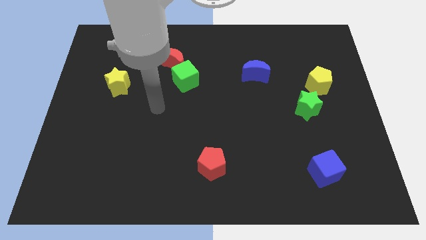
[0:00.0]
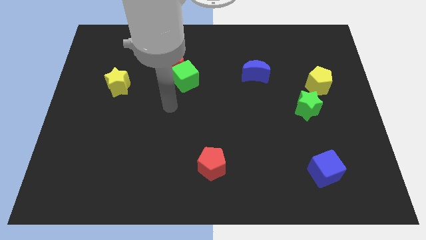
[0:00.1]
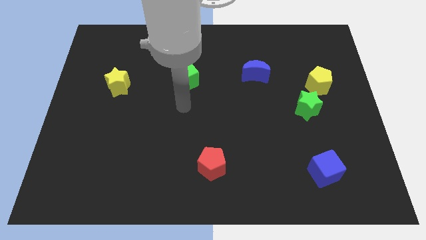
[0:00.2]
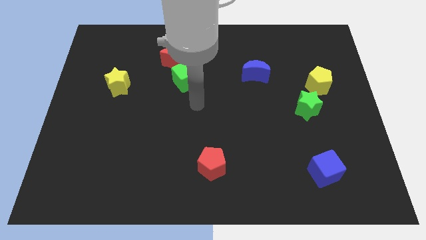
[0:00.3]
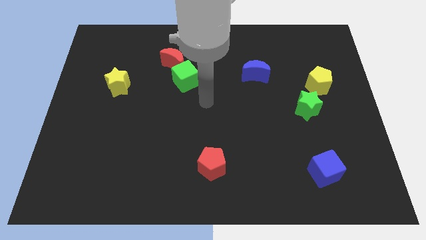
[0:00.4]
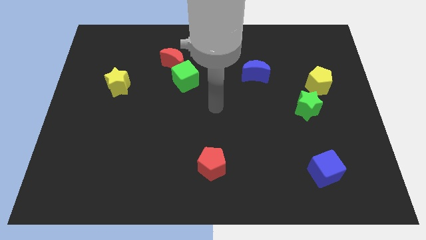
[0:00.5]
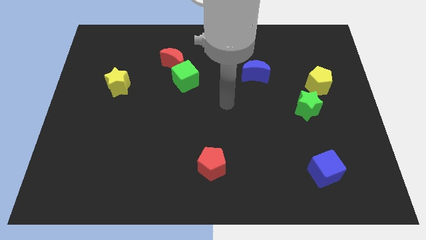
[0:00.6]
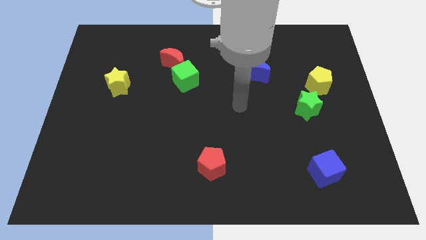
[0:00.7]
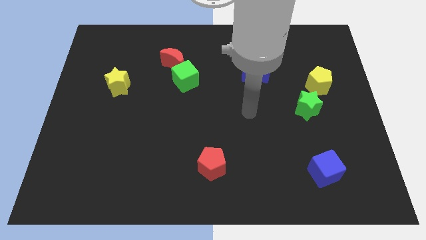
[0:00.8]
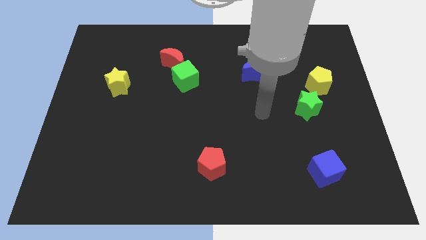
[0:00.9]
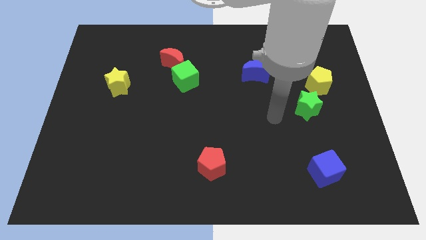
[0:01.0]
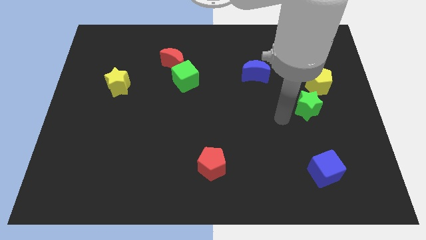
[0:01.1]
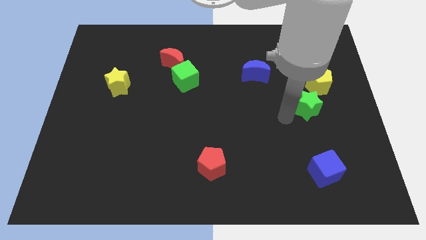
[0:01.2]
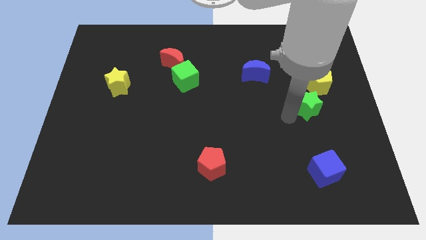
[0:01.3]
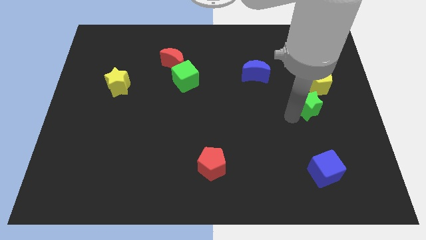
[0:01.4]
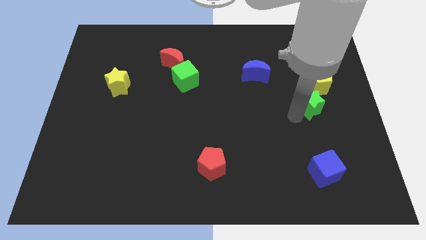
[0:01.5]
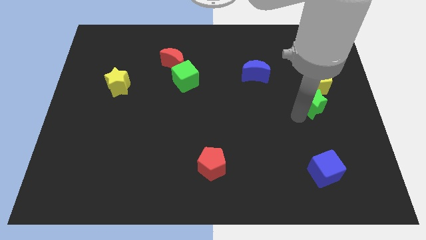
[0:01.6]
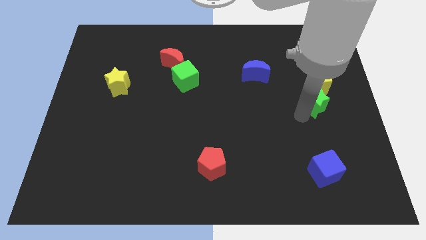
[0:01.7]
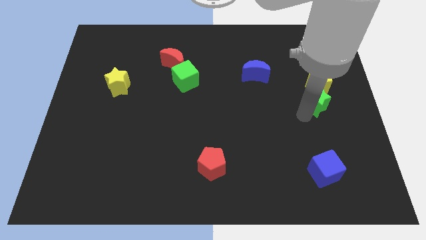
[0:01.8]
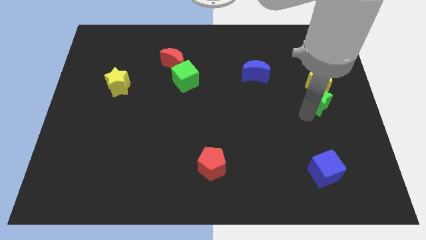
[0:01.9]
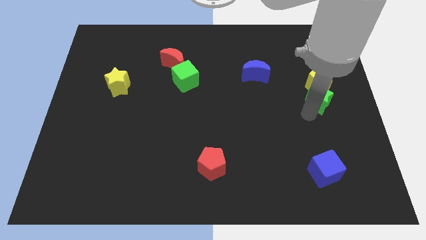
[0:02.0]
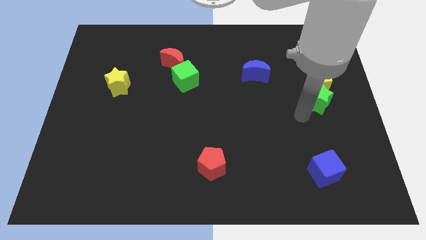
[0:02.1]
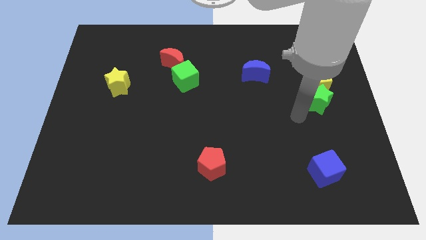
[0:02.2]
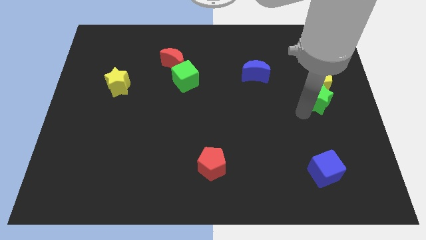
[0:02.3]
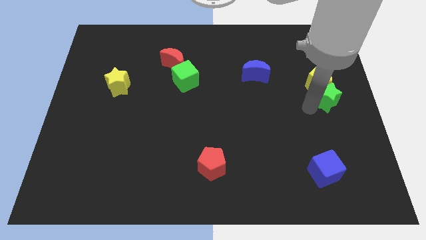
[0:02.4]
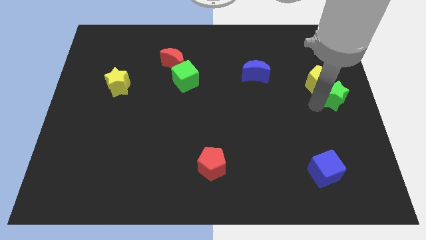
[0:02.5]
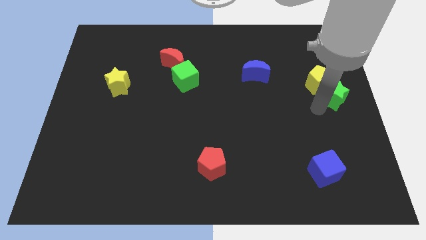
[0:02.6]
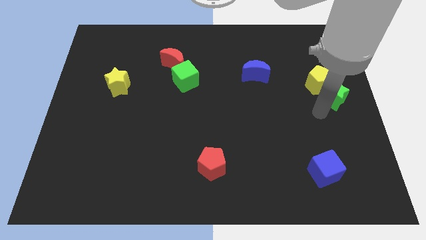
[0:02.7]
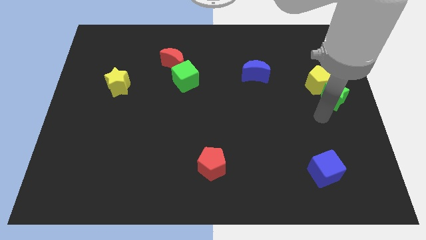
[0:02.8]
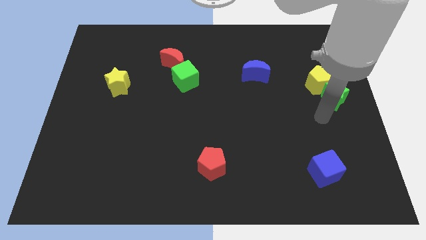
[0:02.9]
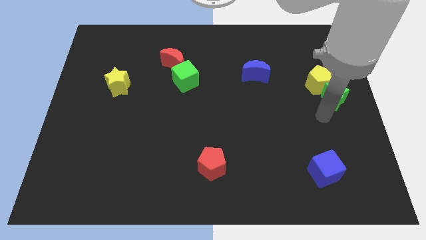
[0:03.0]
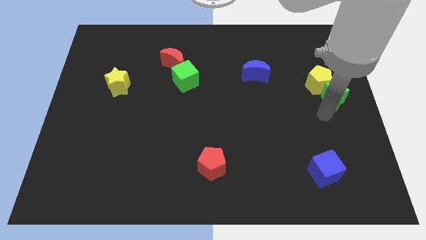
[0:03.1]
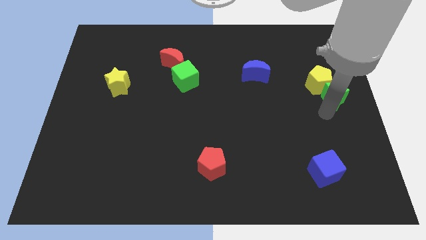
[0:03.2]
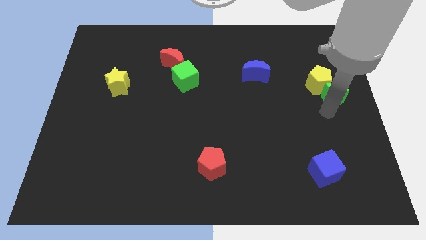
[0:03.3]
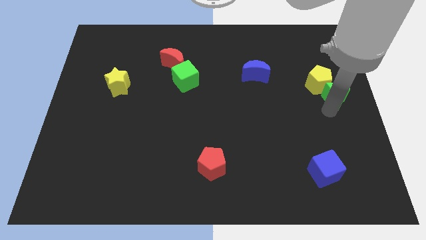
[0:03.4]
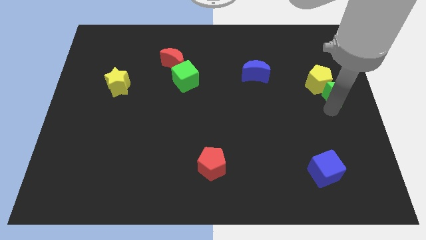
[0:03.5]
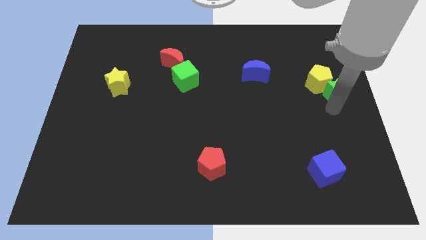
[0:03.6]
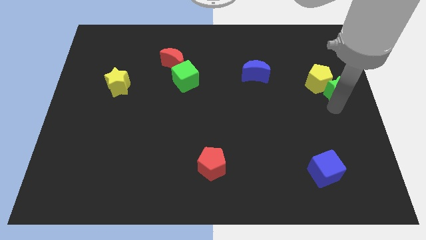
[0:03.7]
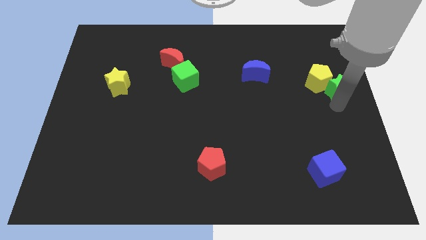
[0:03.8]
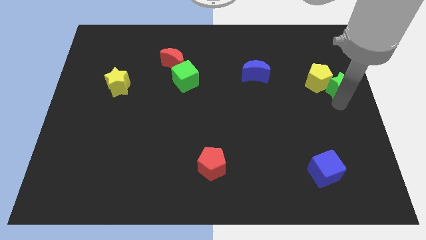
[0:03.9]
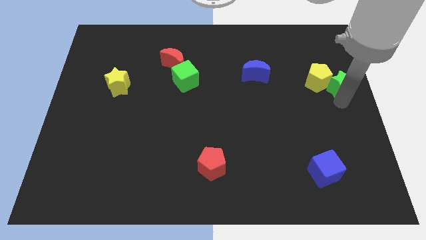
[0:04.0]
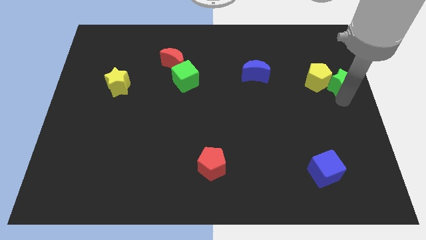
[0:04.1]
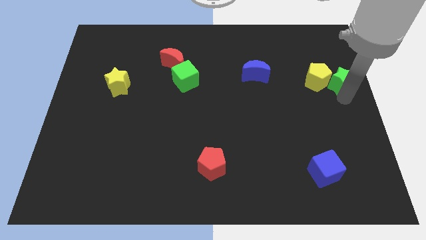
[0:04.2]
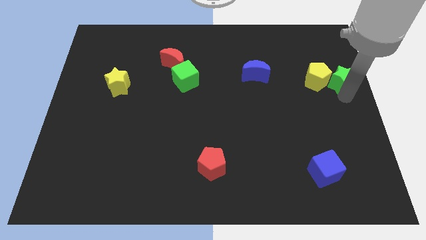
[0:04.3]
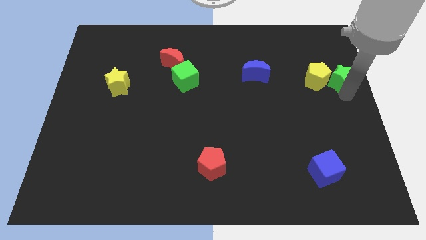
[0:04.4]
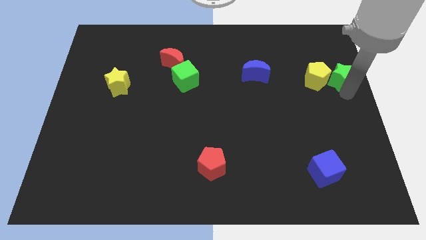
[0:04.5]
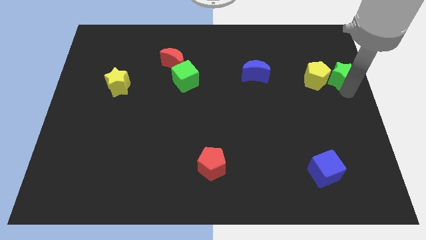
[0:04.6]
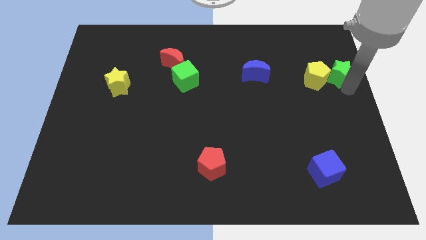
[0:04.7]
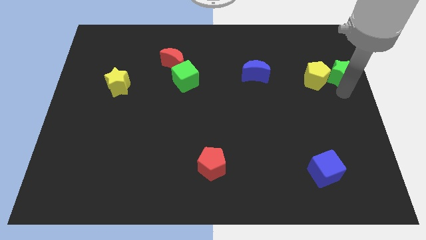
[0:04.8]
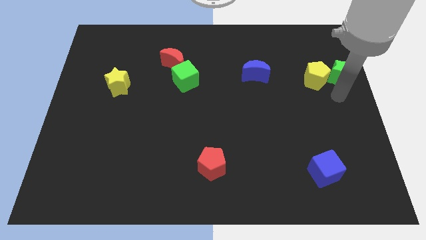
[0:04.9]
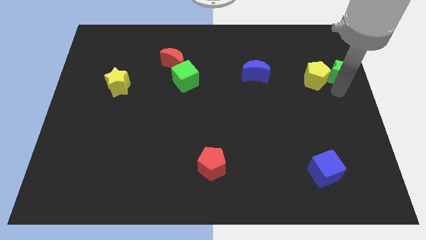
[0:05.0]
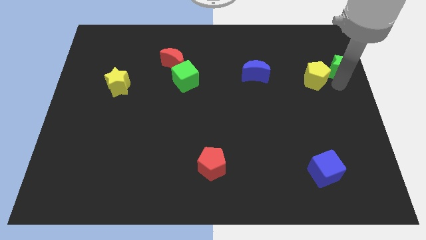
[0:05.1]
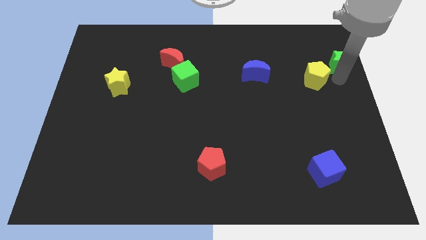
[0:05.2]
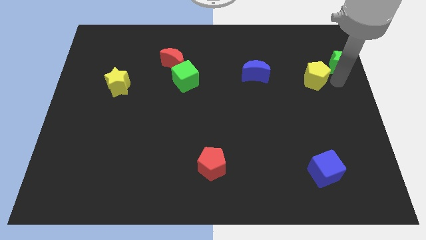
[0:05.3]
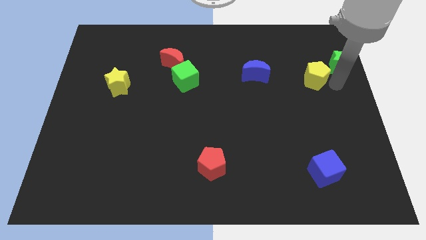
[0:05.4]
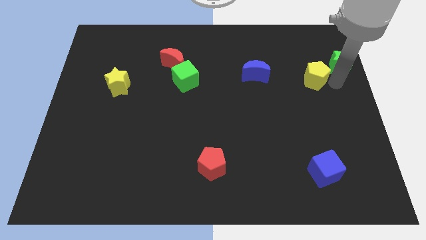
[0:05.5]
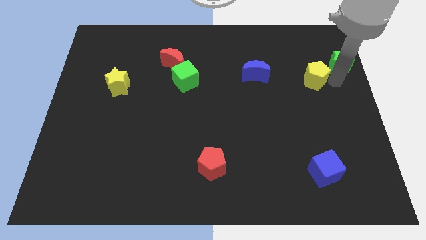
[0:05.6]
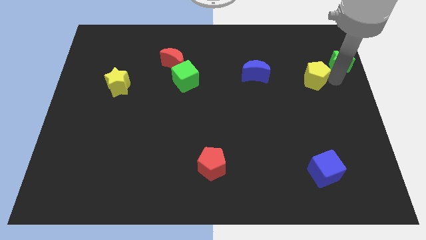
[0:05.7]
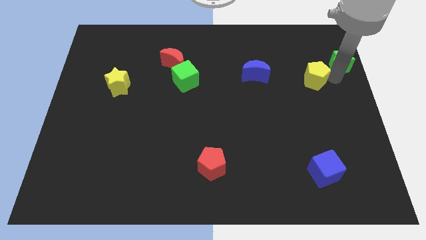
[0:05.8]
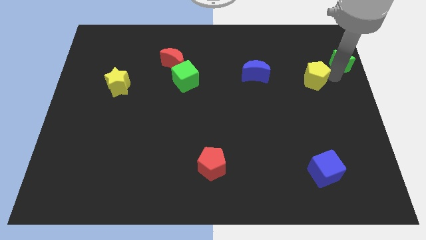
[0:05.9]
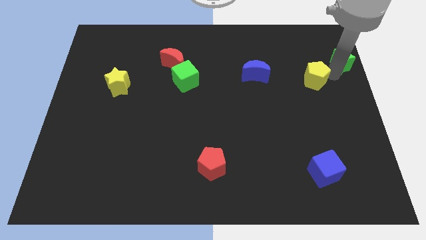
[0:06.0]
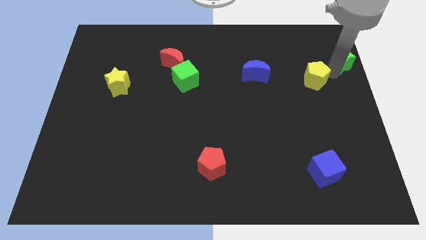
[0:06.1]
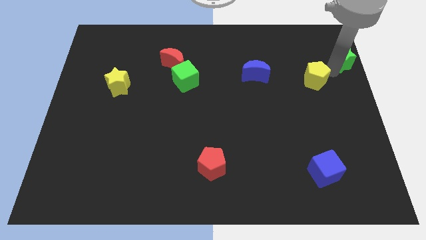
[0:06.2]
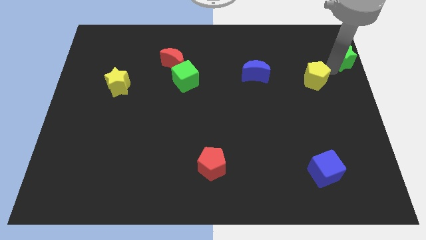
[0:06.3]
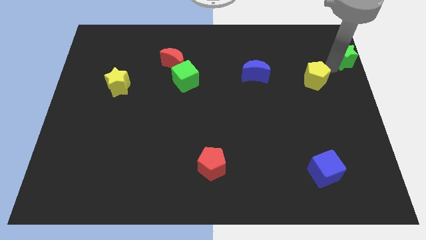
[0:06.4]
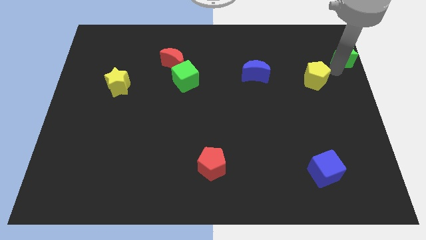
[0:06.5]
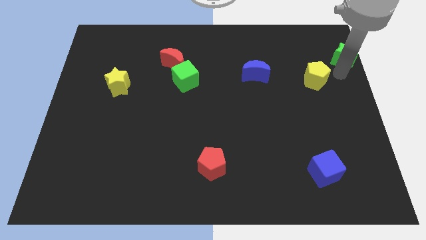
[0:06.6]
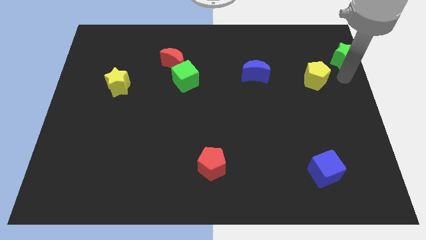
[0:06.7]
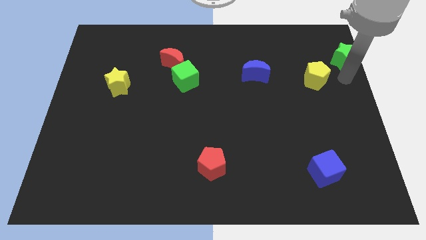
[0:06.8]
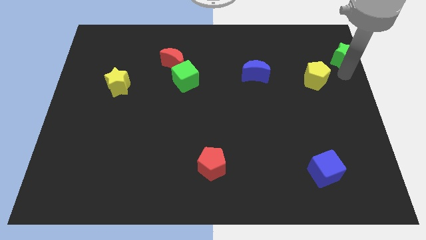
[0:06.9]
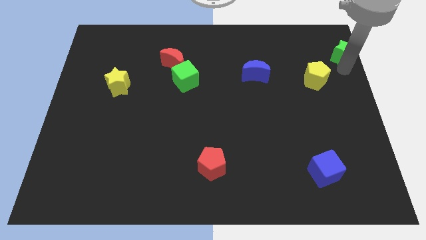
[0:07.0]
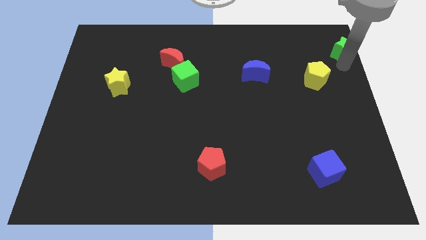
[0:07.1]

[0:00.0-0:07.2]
move the green star to the top right of the board

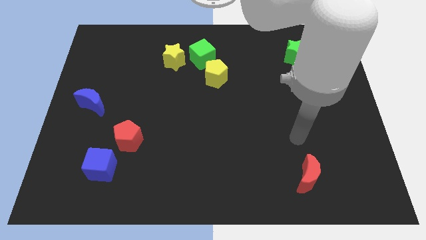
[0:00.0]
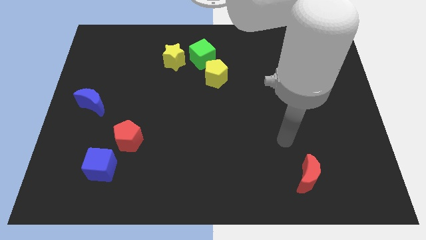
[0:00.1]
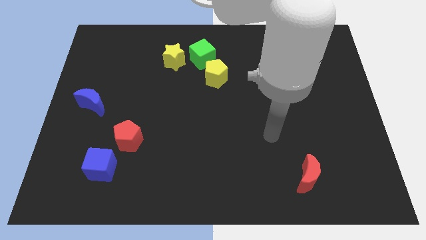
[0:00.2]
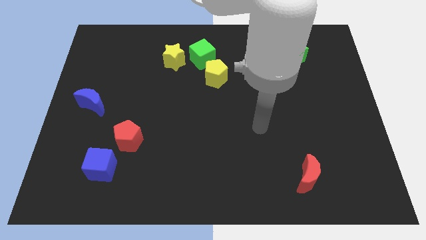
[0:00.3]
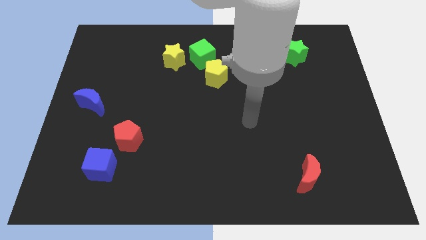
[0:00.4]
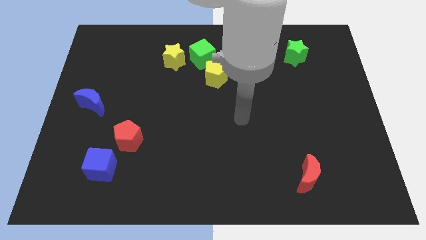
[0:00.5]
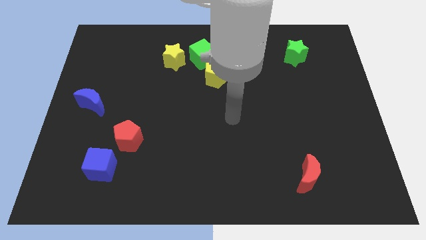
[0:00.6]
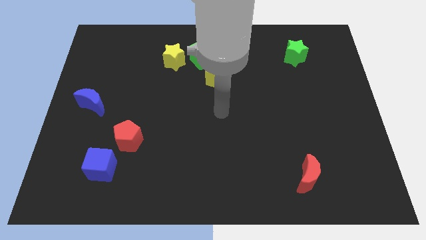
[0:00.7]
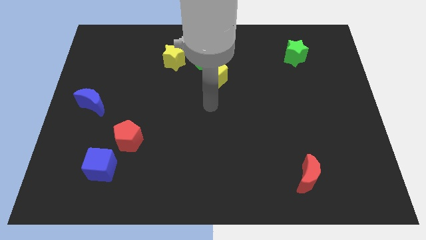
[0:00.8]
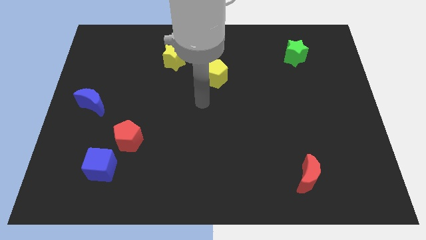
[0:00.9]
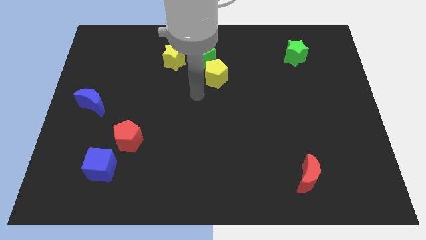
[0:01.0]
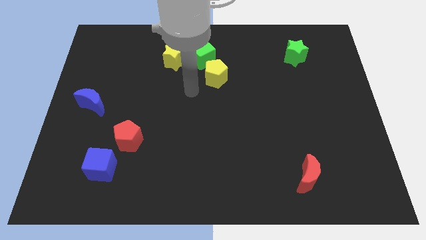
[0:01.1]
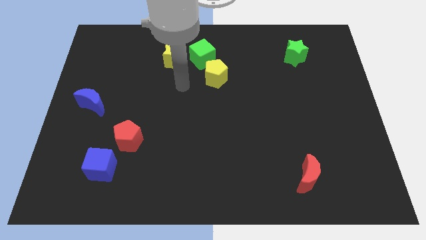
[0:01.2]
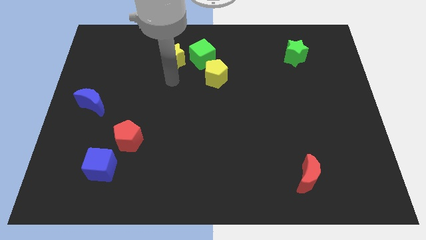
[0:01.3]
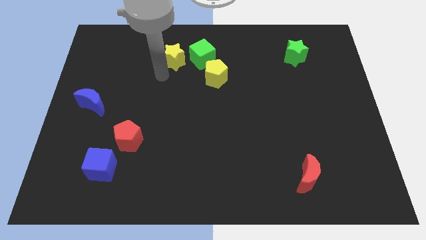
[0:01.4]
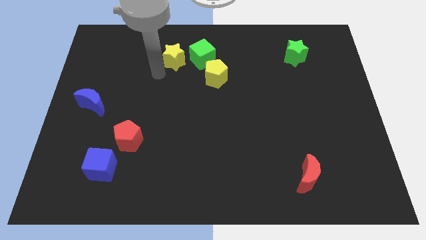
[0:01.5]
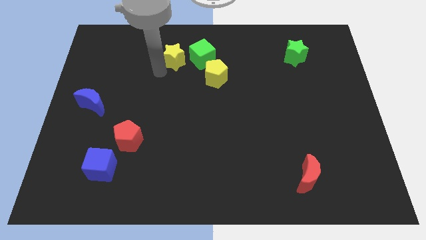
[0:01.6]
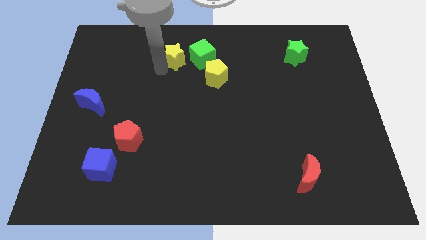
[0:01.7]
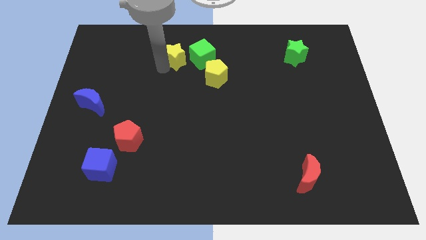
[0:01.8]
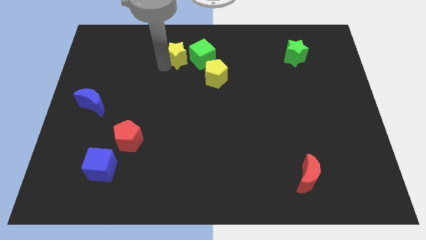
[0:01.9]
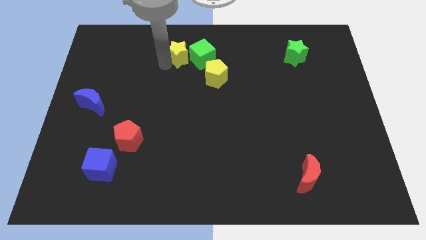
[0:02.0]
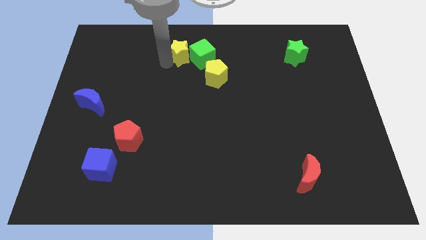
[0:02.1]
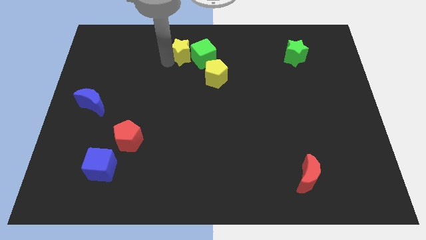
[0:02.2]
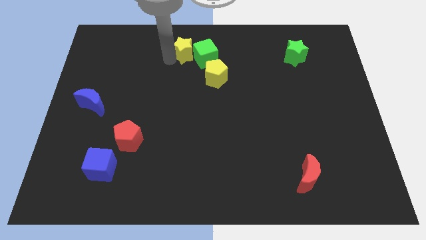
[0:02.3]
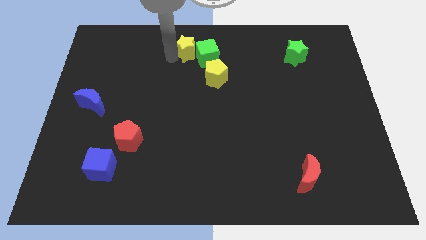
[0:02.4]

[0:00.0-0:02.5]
slide the yellow star to the towards your base
